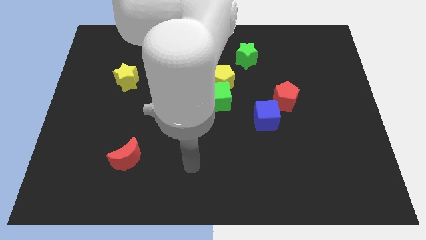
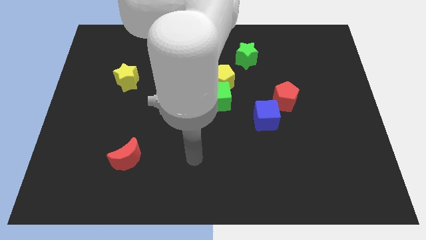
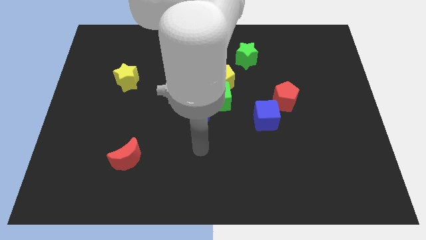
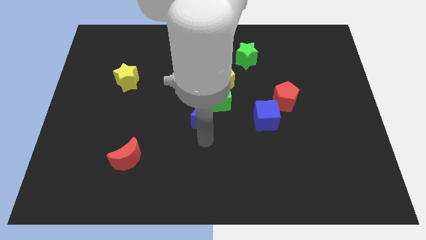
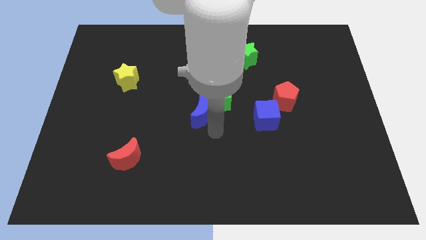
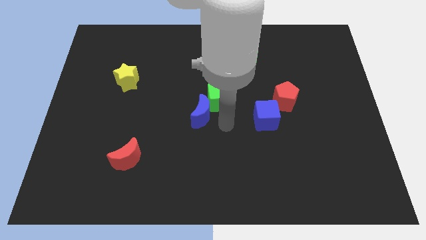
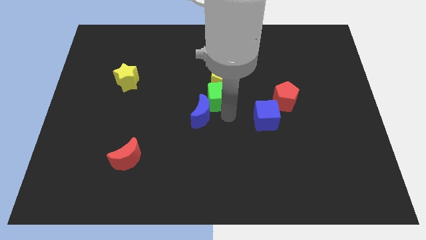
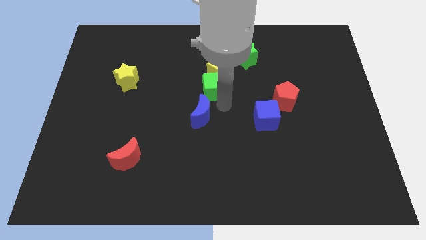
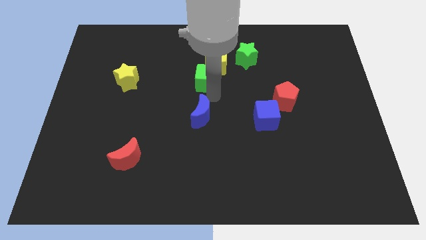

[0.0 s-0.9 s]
pull the blue moon apart from the green cube

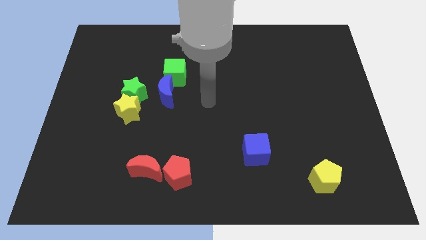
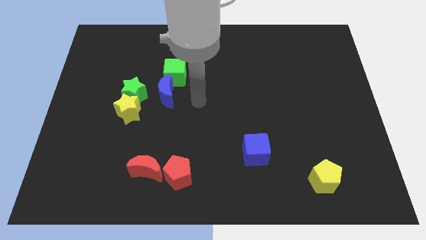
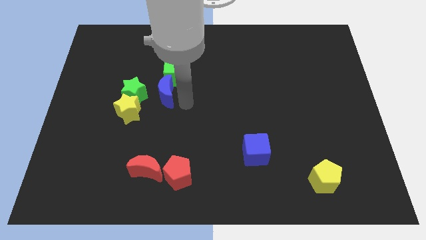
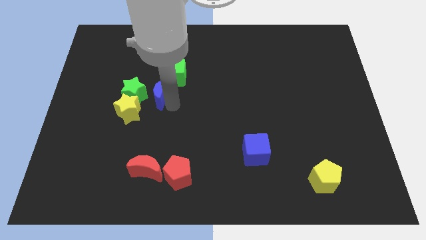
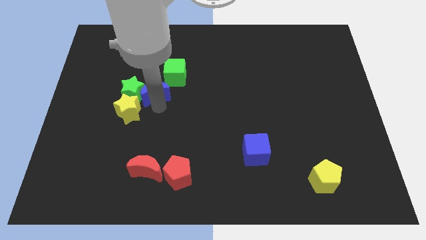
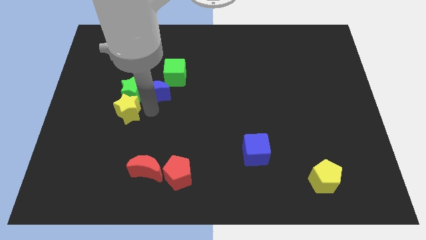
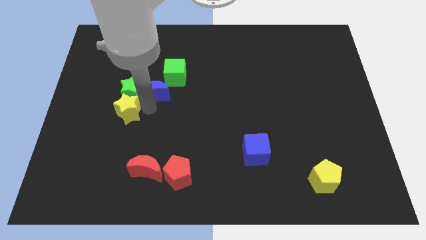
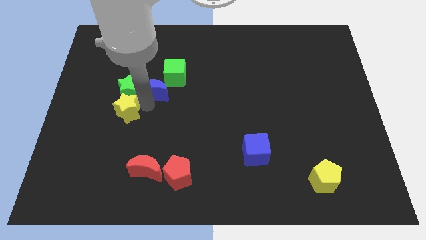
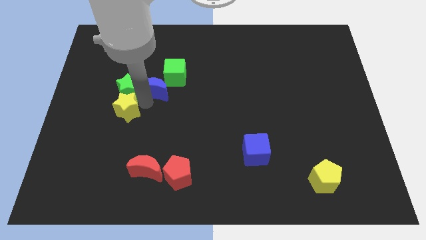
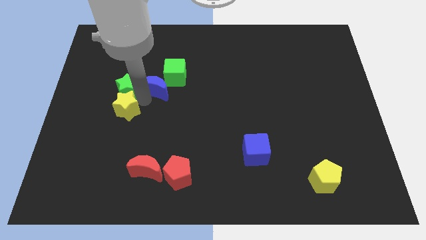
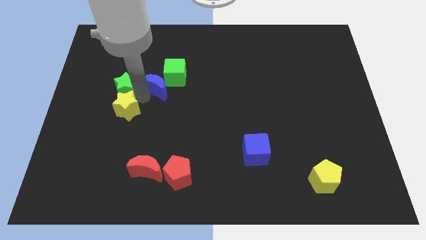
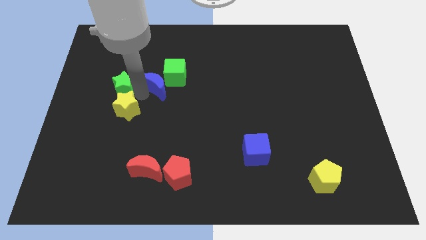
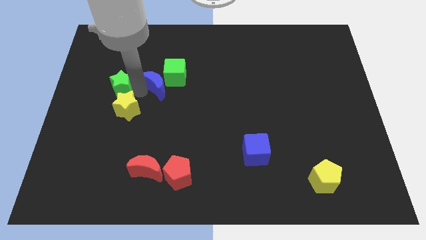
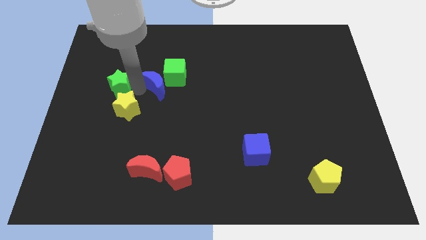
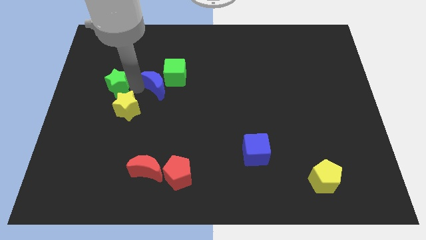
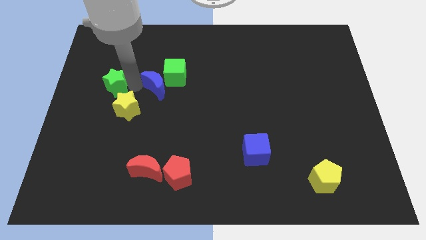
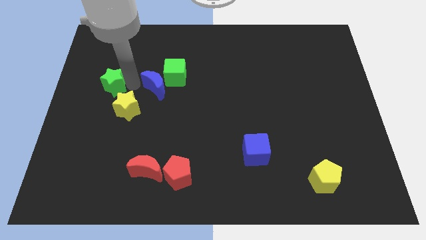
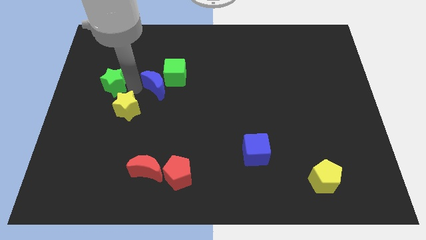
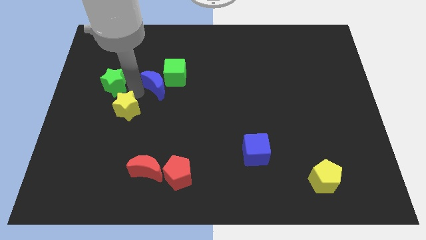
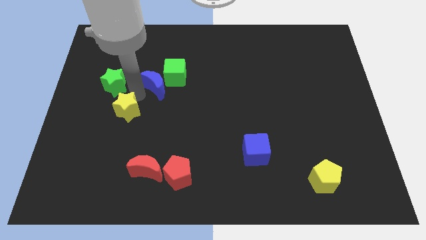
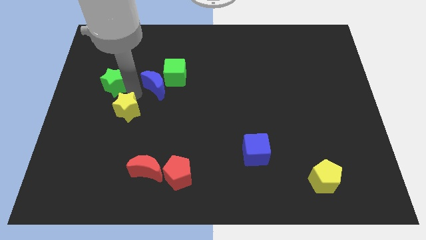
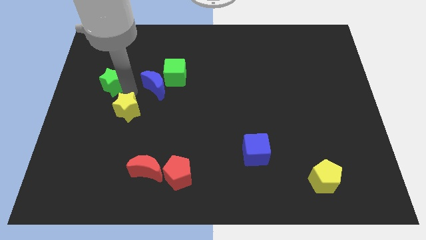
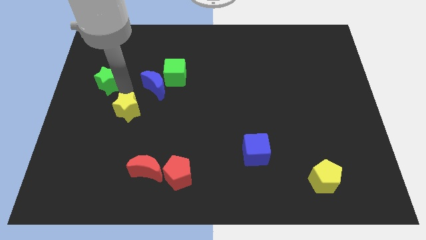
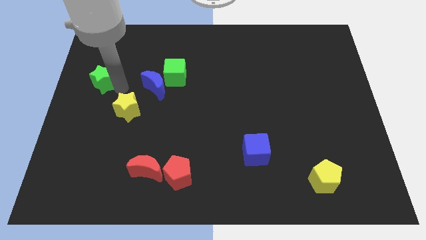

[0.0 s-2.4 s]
move the green star away from the yellow star and blue moon

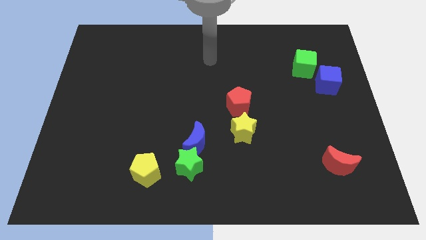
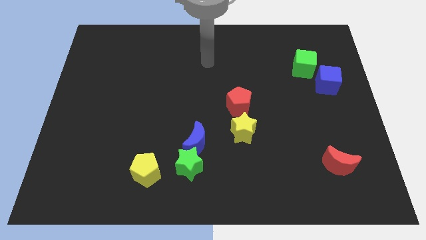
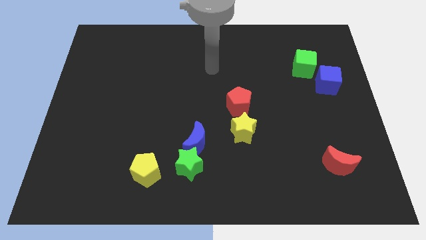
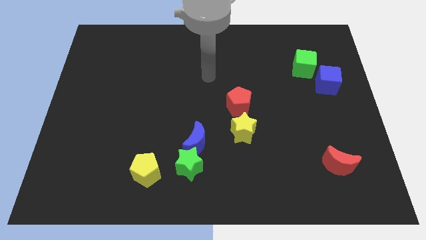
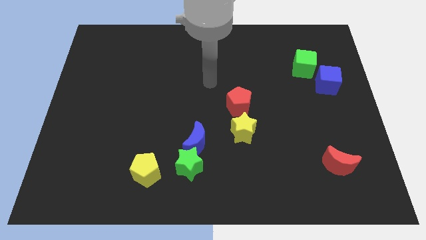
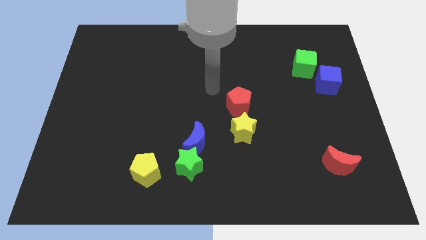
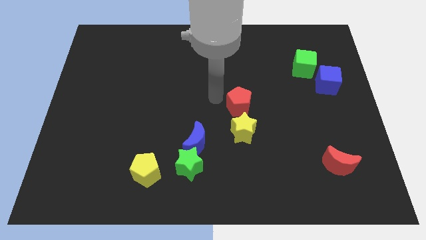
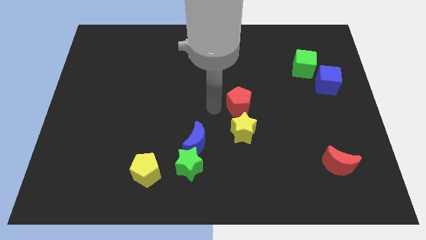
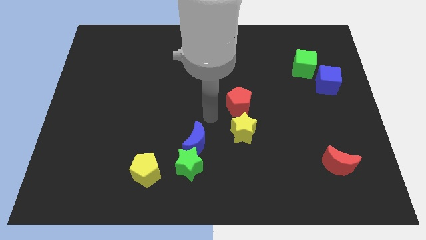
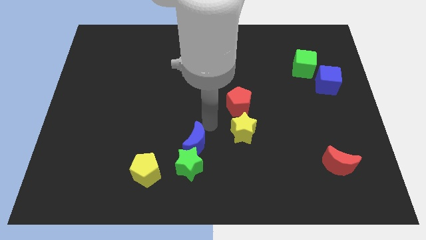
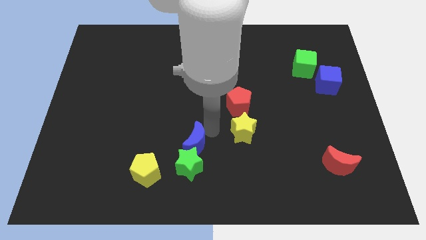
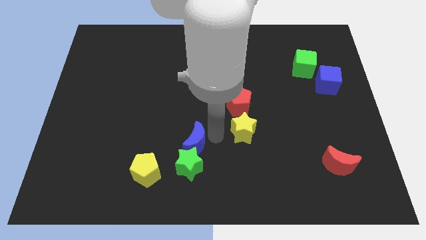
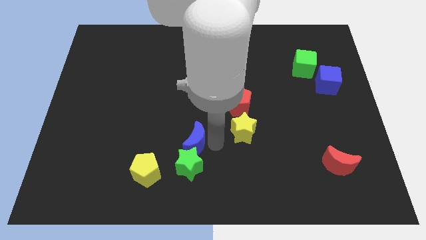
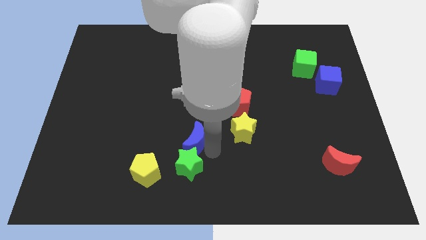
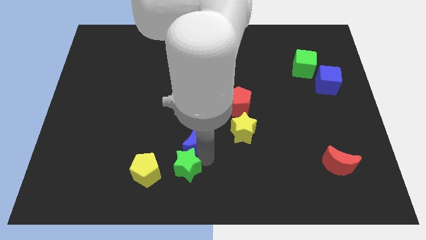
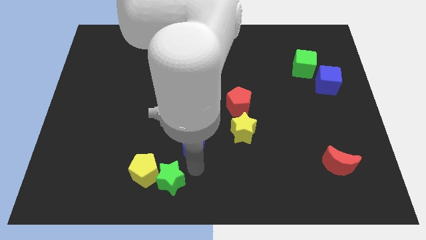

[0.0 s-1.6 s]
move the blue moon away from the green star

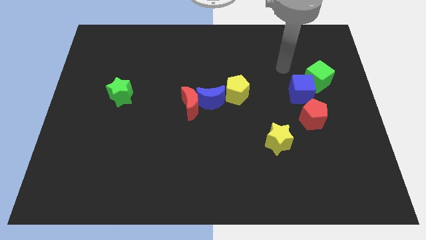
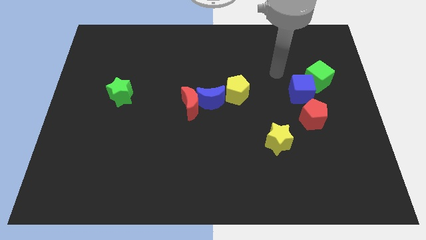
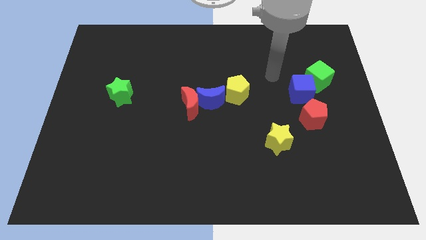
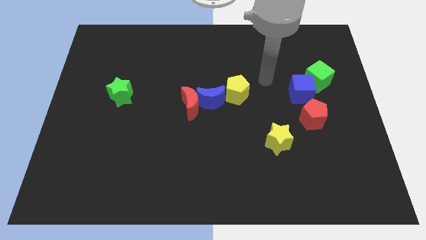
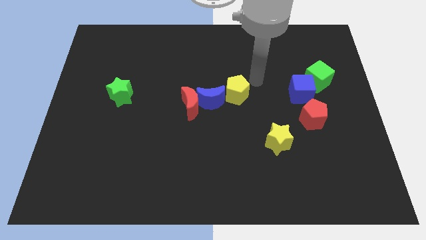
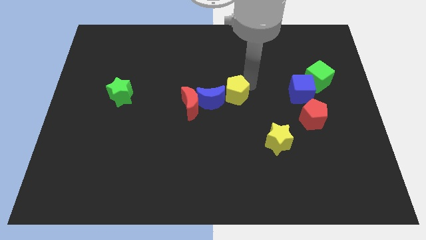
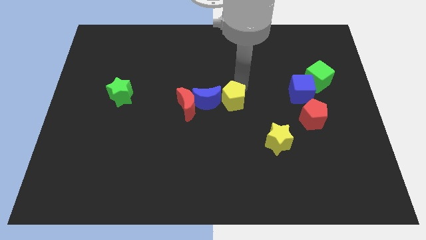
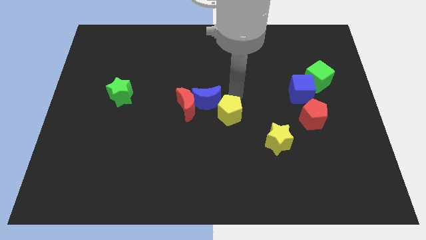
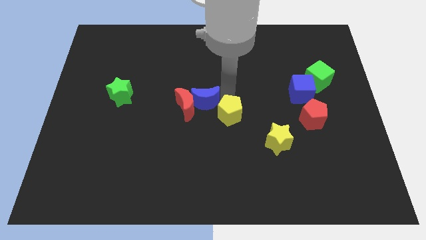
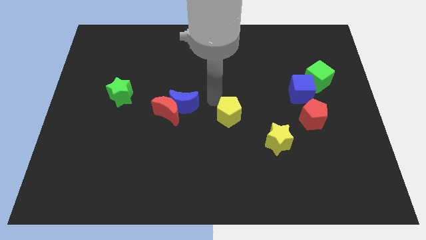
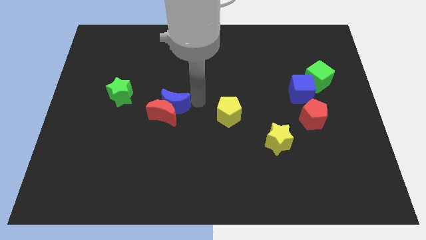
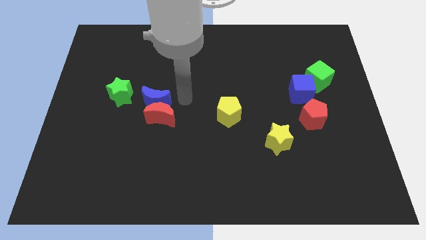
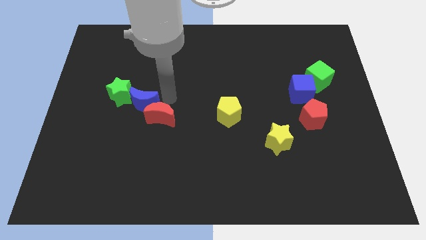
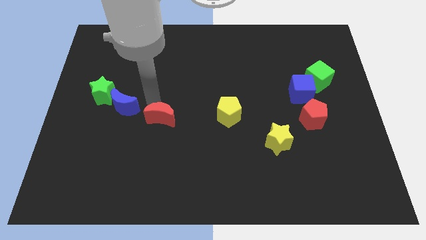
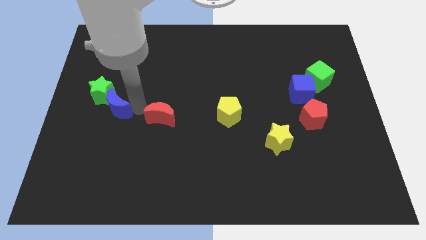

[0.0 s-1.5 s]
move the red moon away from the blue moon

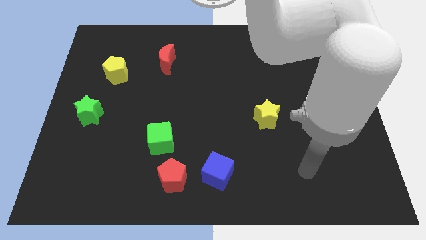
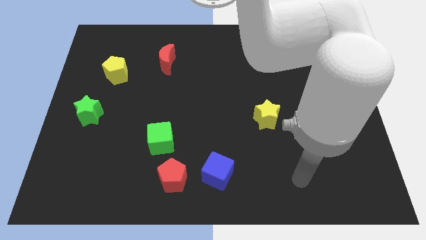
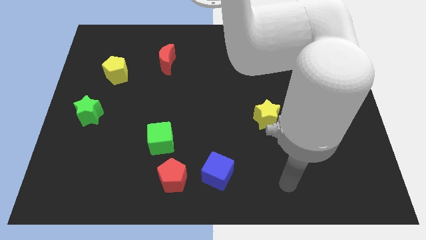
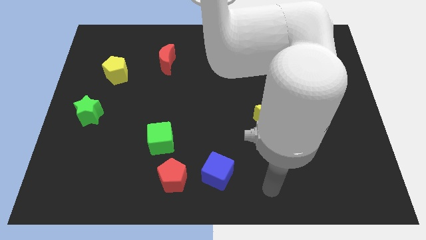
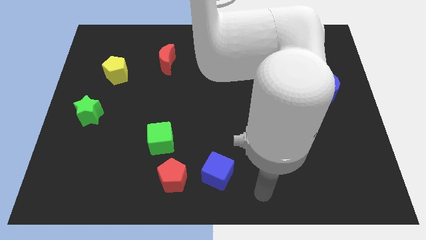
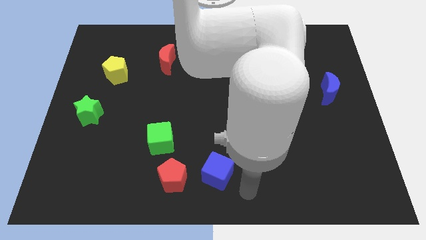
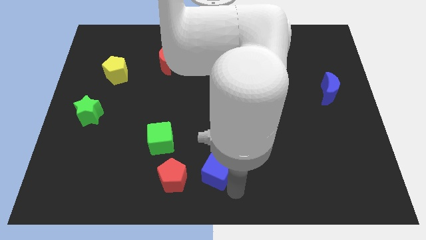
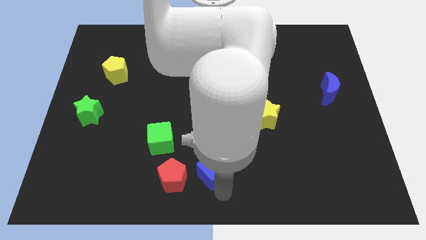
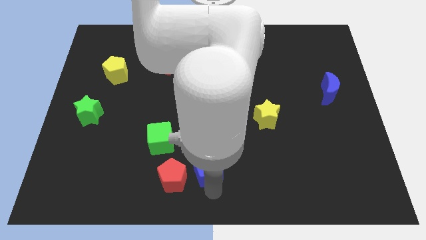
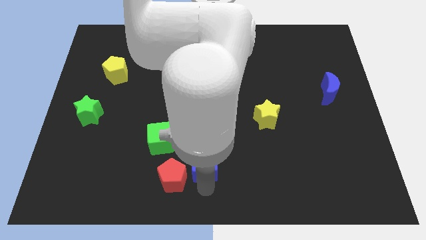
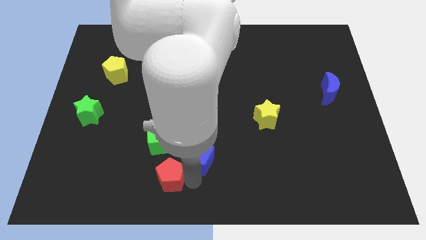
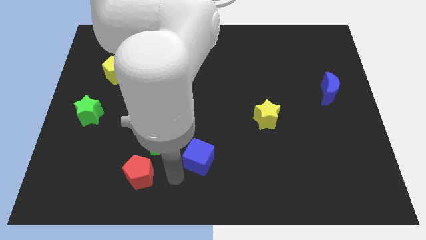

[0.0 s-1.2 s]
separate the blue cube from the red pentagon

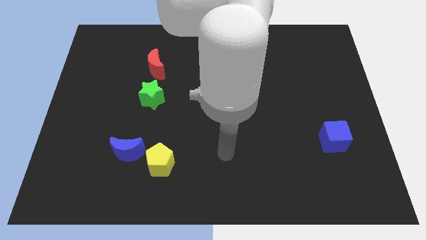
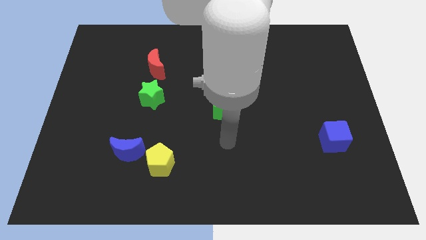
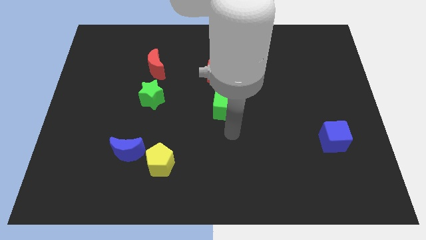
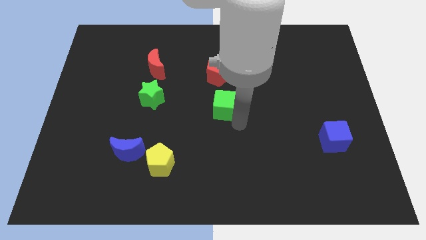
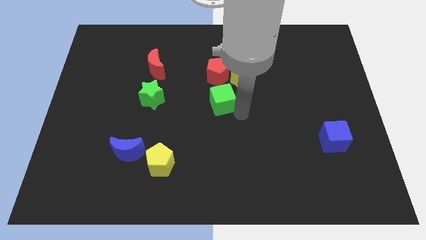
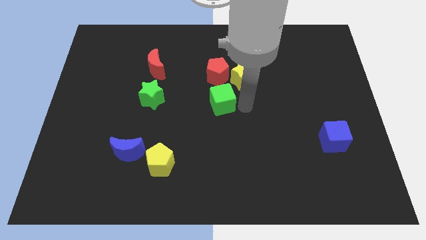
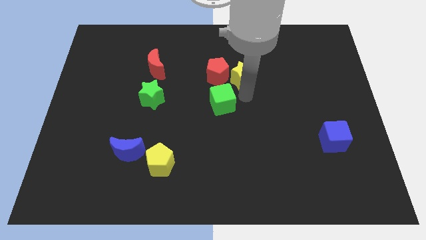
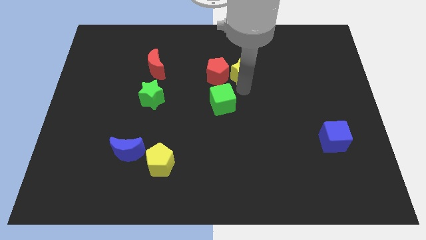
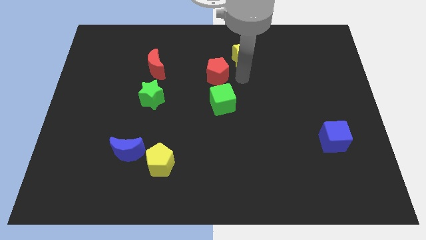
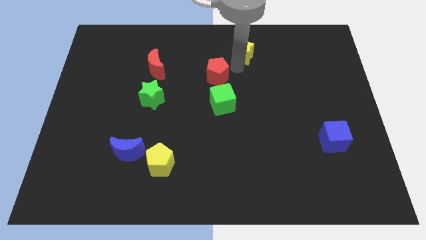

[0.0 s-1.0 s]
separate the red pentagon from the yellow star

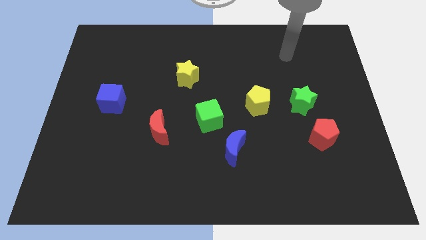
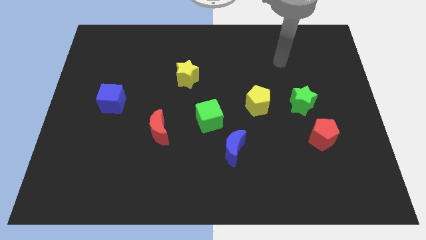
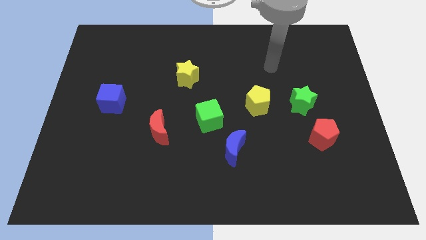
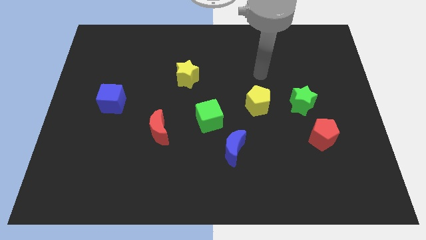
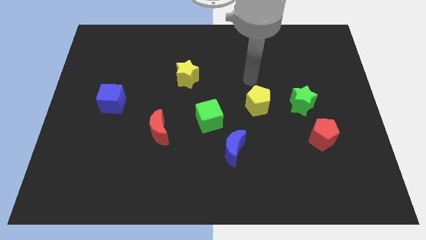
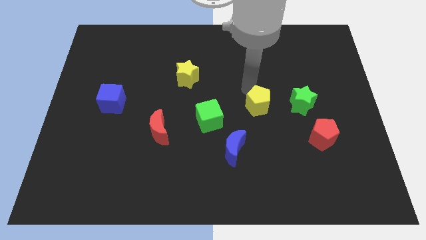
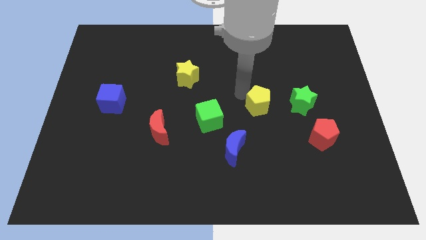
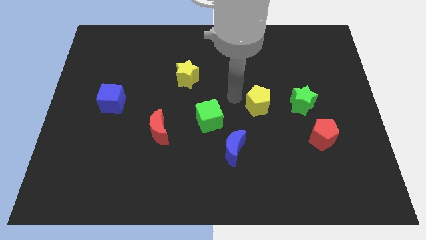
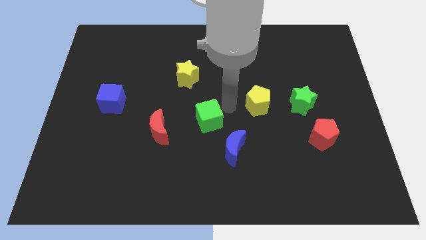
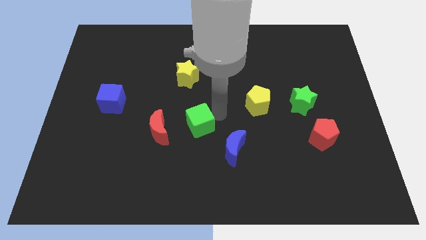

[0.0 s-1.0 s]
separate the blue moon from the green cube
